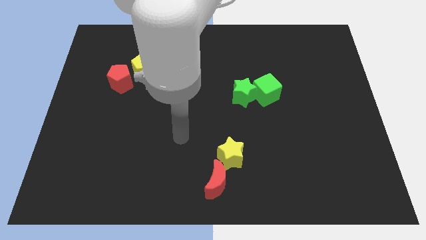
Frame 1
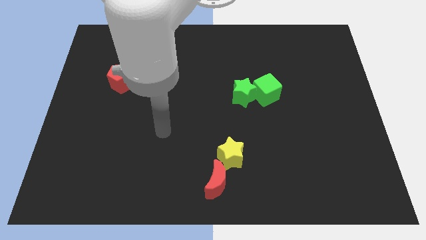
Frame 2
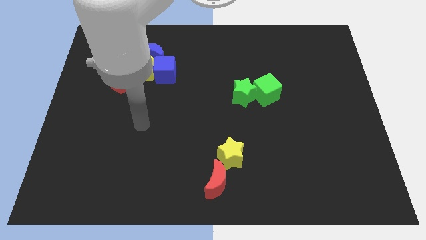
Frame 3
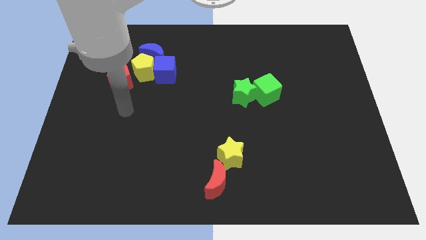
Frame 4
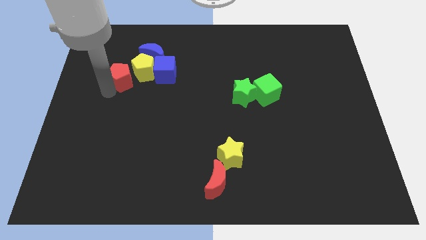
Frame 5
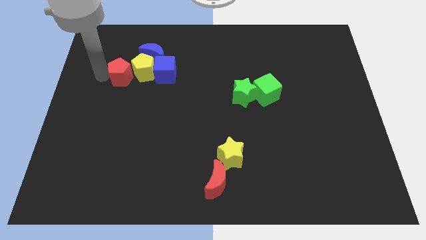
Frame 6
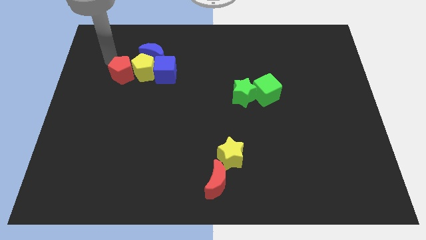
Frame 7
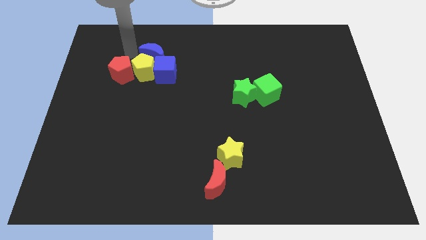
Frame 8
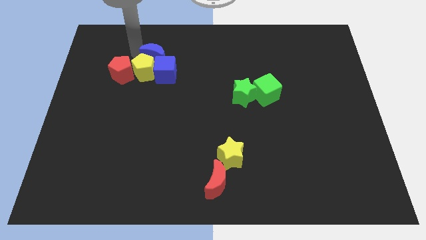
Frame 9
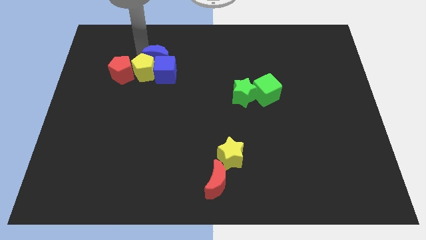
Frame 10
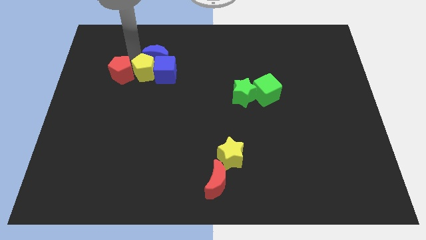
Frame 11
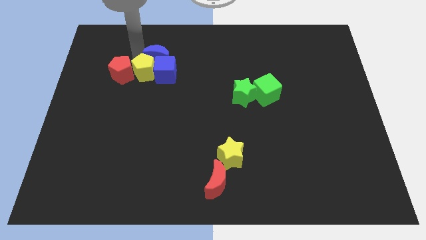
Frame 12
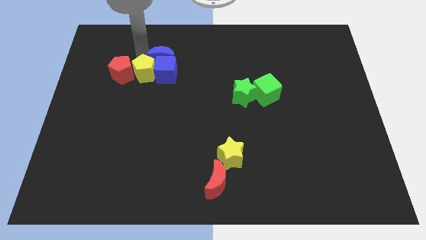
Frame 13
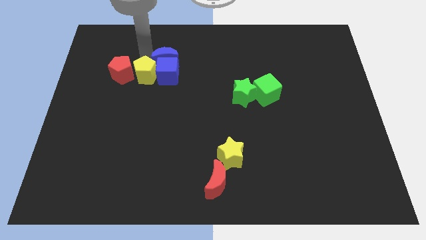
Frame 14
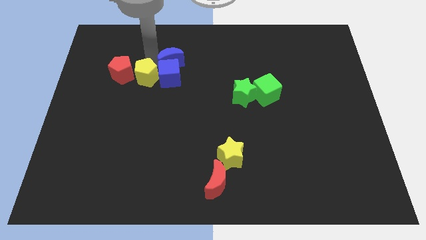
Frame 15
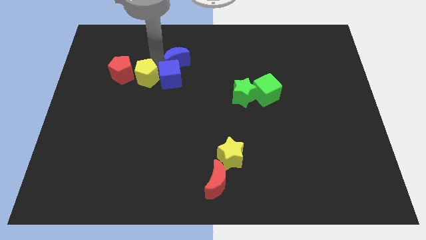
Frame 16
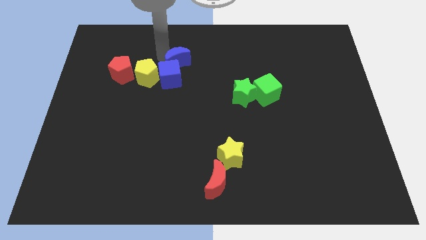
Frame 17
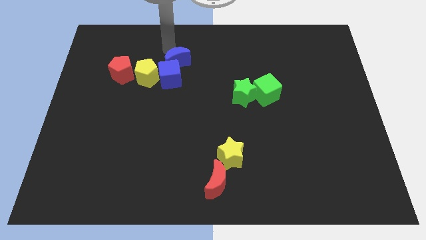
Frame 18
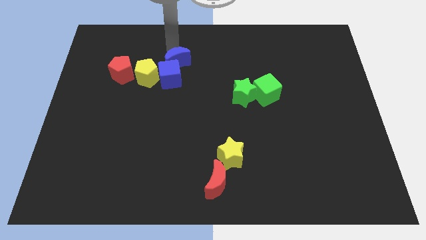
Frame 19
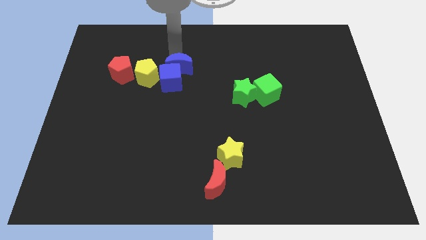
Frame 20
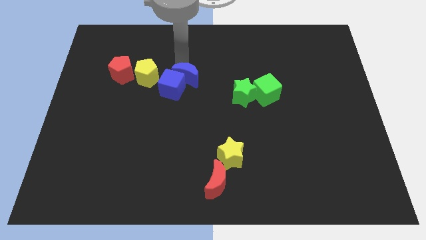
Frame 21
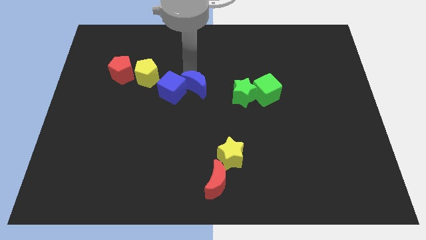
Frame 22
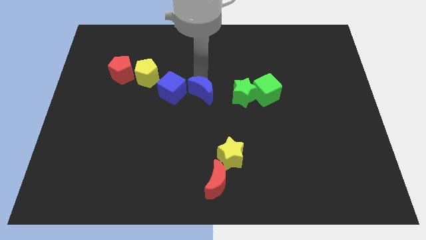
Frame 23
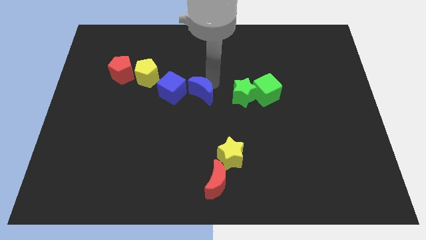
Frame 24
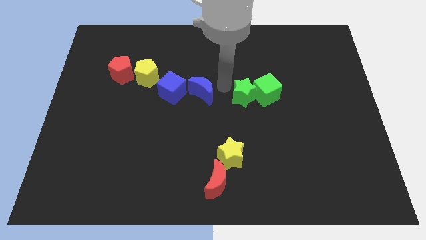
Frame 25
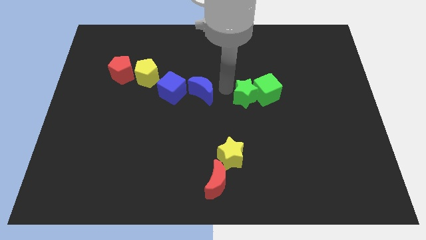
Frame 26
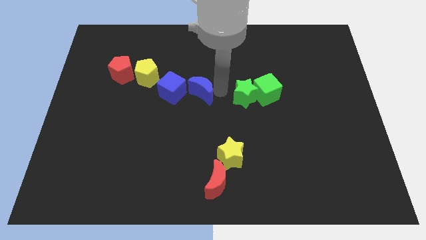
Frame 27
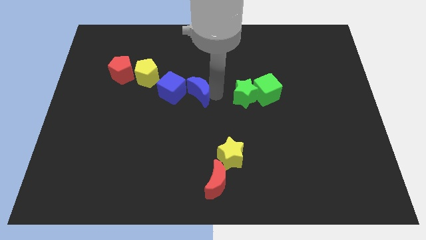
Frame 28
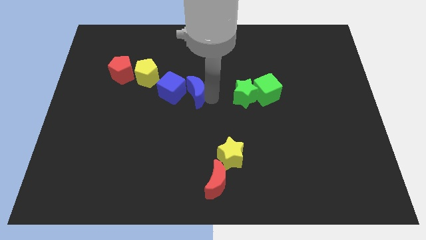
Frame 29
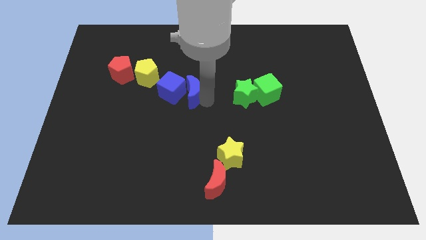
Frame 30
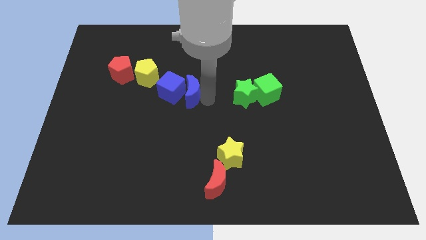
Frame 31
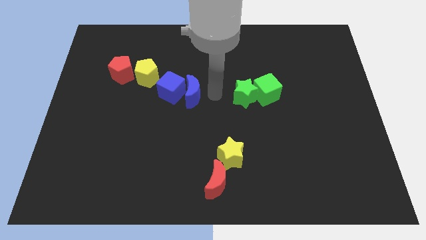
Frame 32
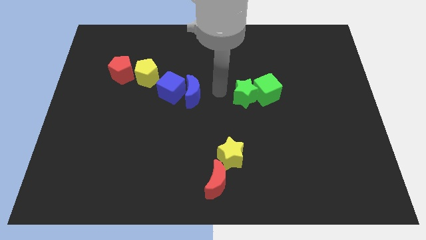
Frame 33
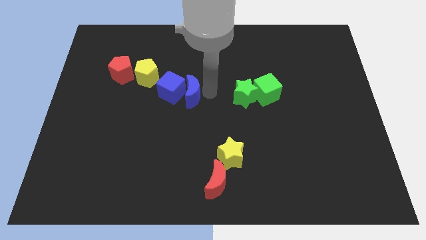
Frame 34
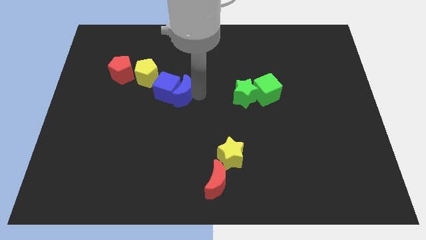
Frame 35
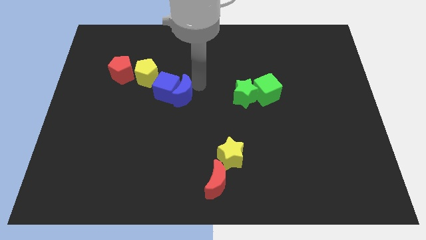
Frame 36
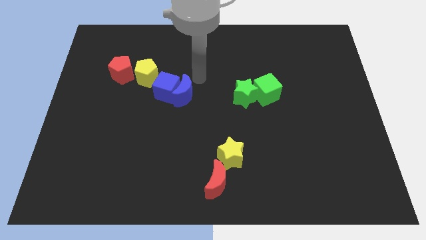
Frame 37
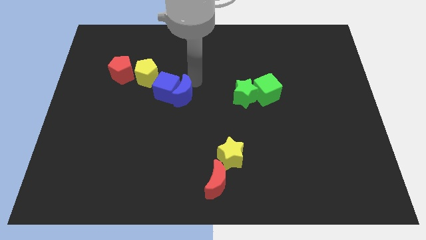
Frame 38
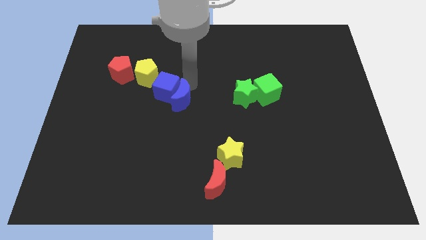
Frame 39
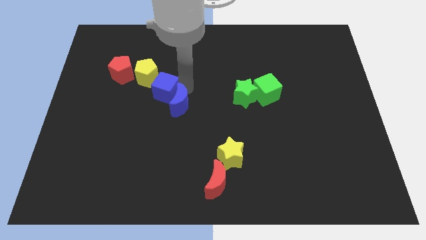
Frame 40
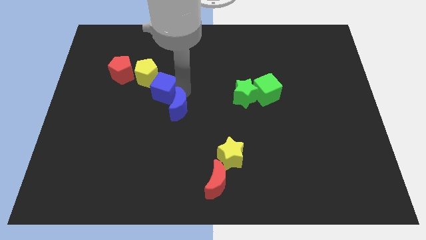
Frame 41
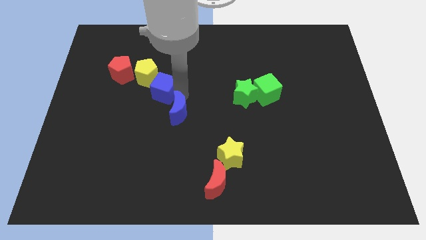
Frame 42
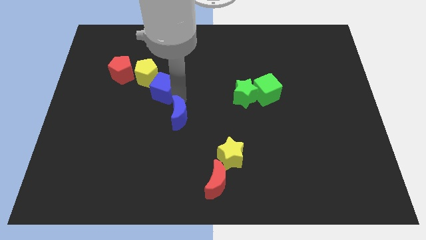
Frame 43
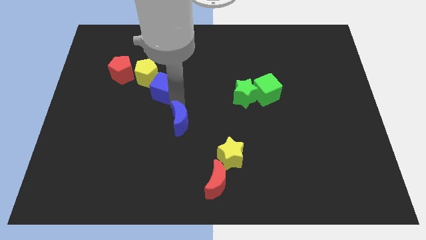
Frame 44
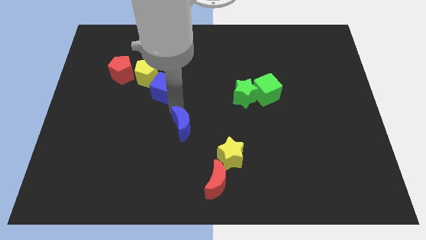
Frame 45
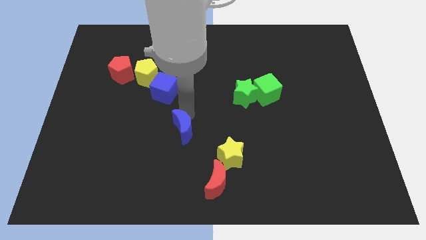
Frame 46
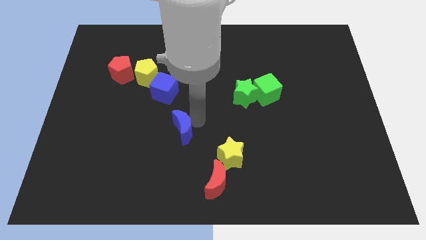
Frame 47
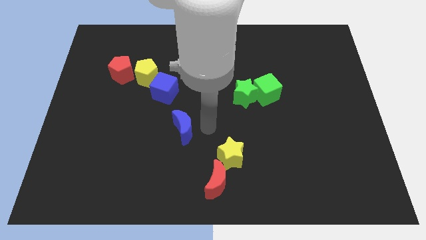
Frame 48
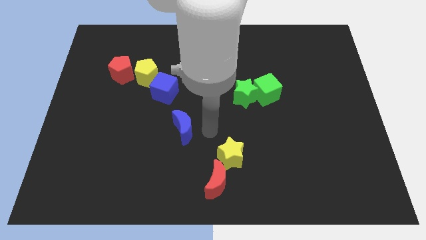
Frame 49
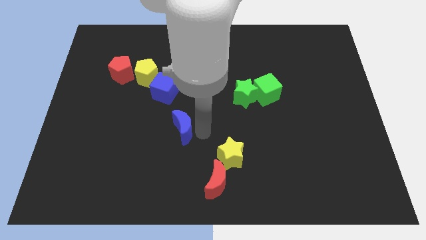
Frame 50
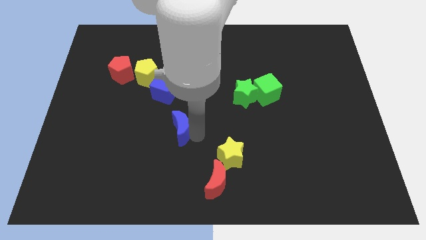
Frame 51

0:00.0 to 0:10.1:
move the blue moon downwards

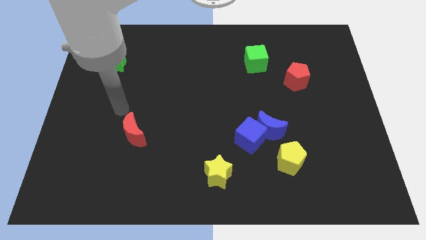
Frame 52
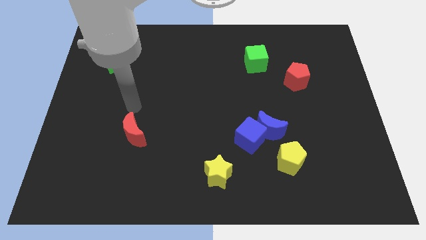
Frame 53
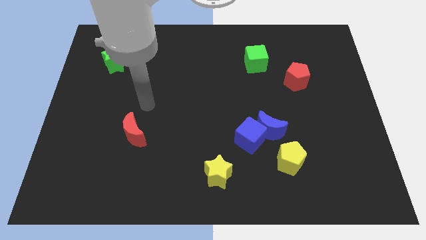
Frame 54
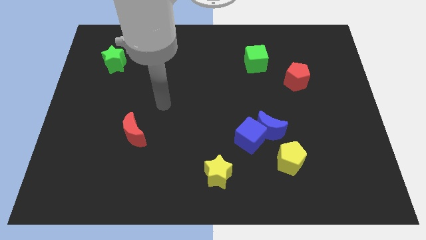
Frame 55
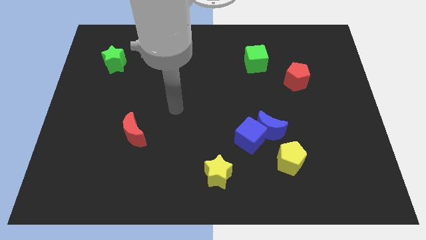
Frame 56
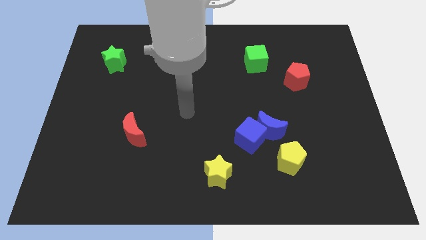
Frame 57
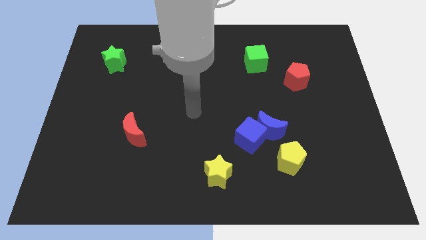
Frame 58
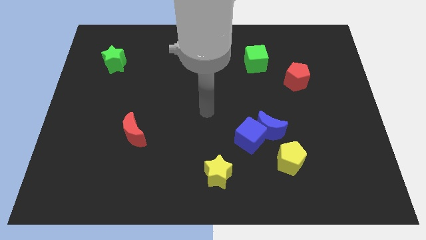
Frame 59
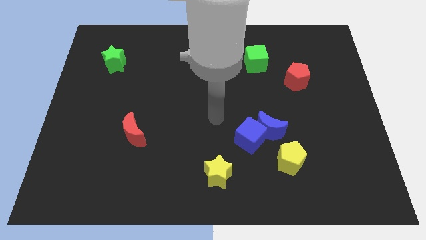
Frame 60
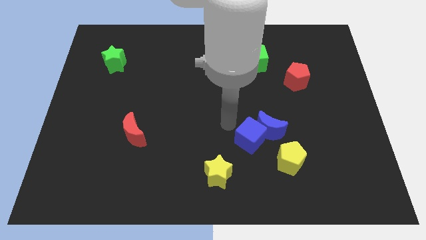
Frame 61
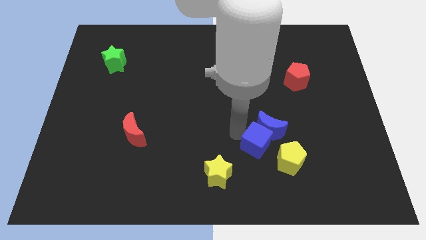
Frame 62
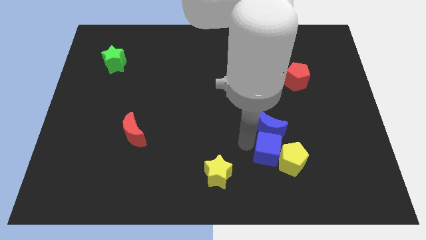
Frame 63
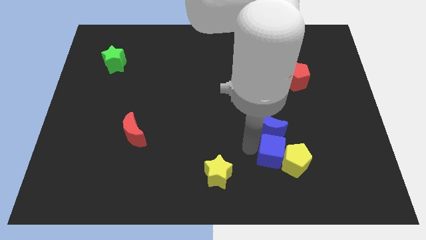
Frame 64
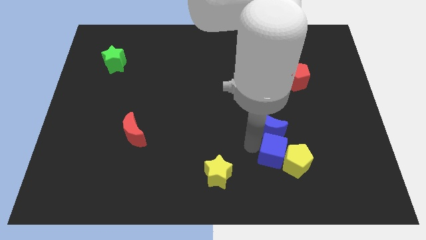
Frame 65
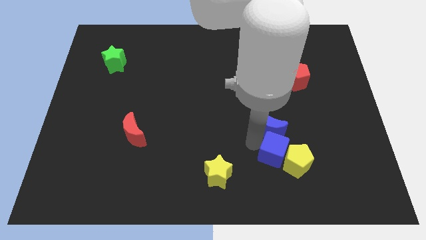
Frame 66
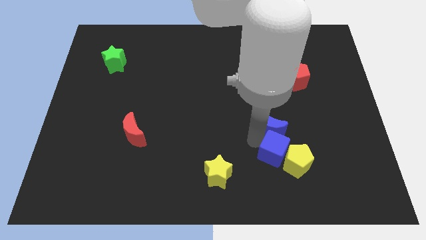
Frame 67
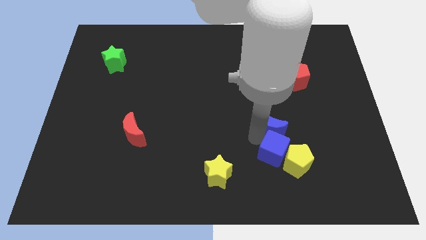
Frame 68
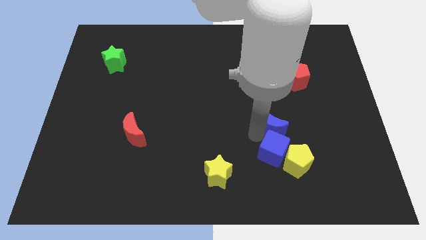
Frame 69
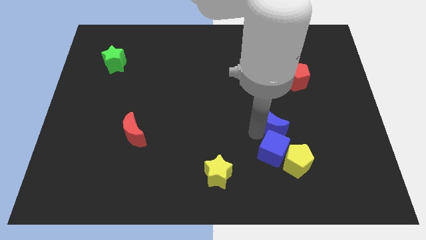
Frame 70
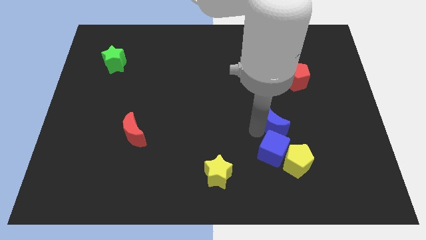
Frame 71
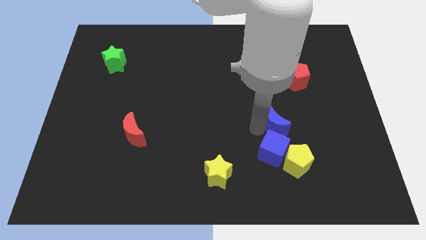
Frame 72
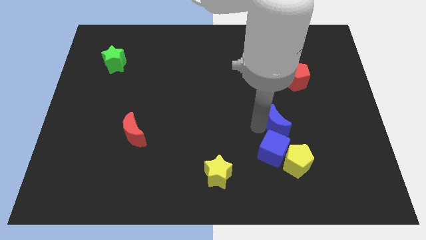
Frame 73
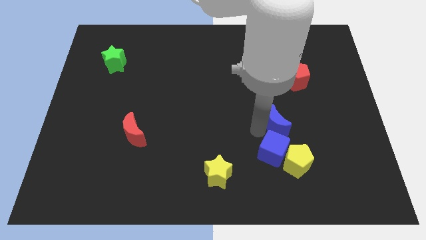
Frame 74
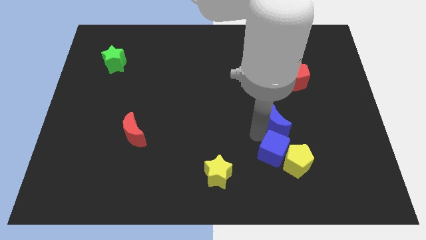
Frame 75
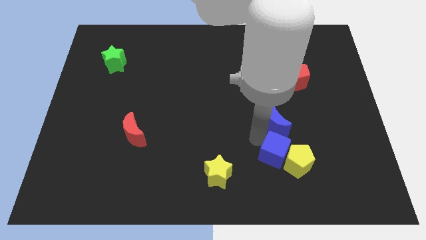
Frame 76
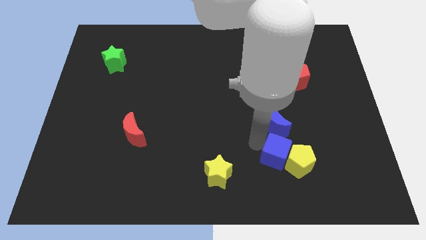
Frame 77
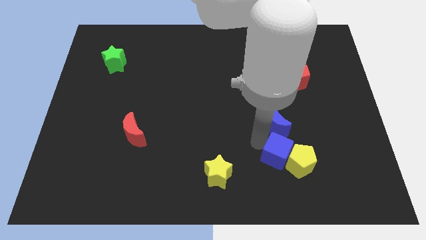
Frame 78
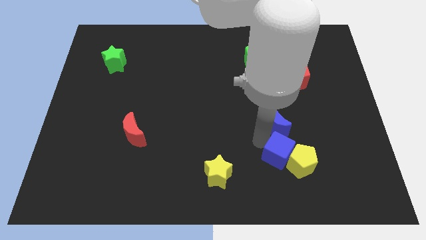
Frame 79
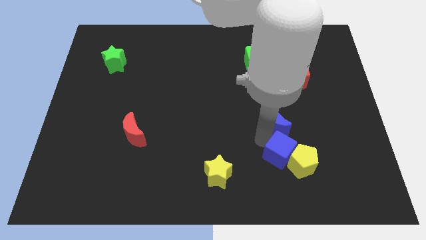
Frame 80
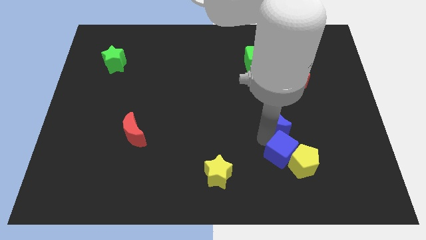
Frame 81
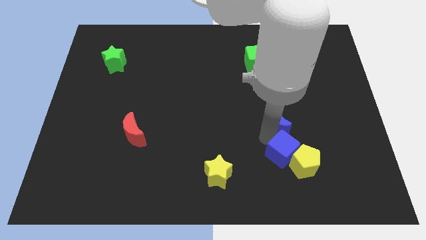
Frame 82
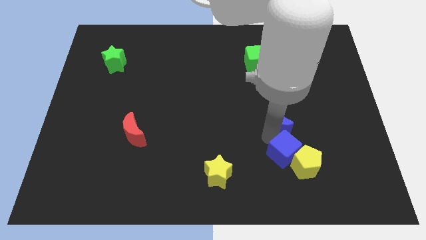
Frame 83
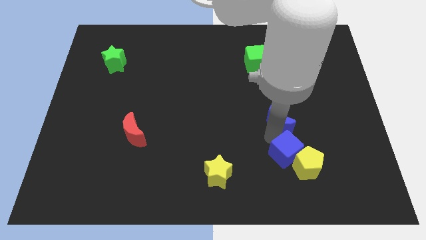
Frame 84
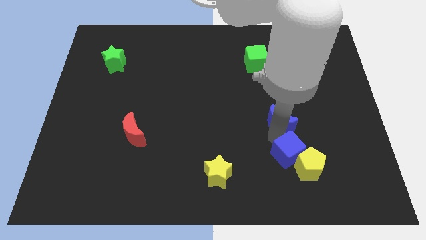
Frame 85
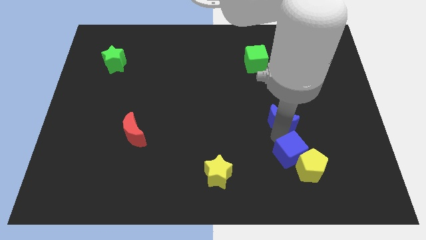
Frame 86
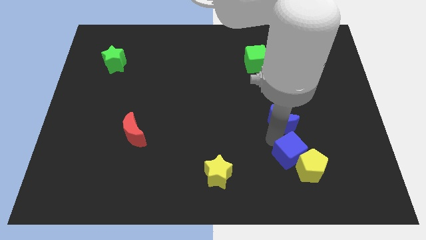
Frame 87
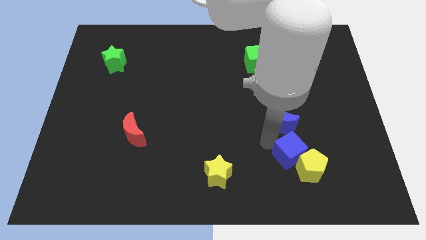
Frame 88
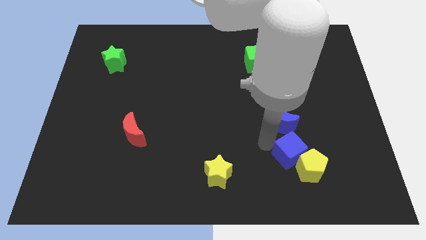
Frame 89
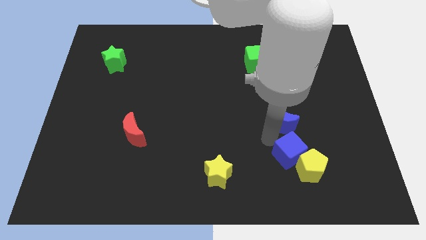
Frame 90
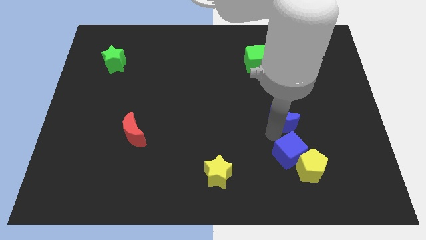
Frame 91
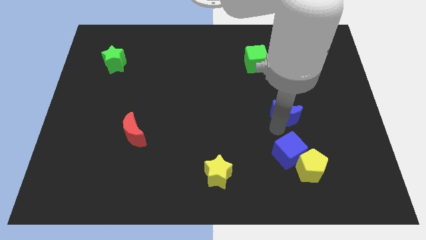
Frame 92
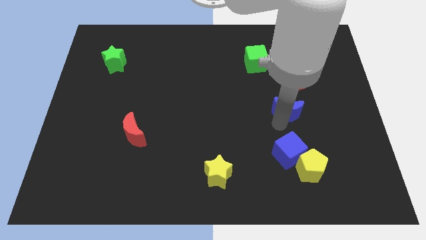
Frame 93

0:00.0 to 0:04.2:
move the blue moon diagonally up and to the right somewhat
